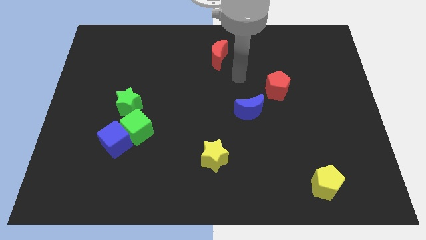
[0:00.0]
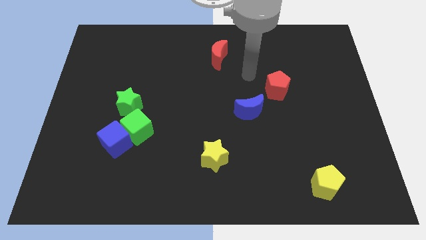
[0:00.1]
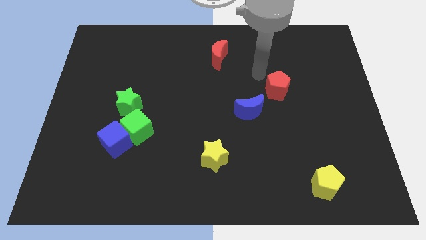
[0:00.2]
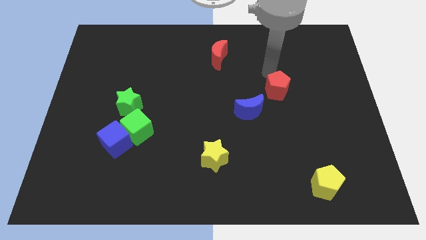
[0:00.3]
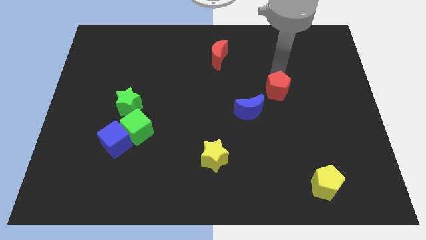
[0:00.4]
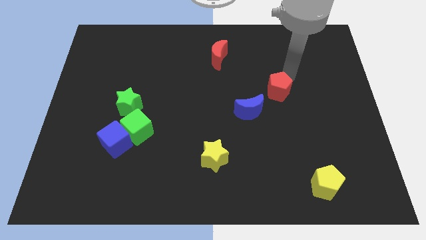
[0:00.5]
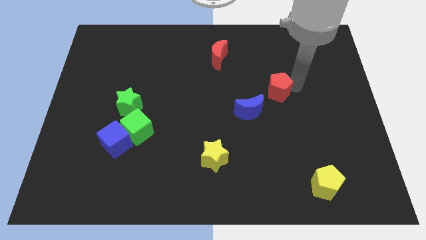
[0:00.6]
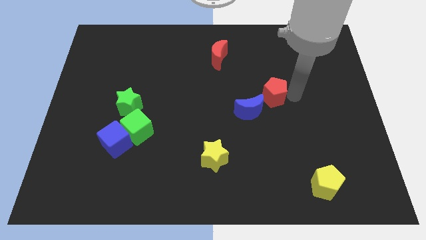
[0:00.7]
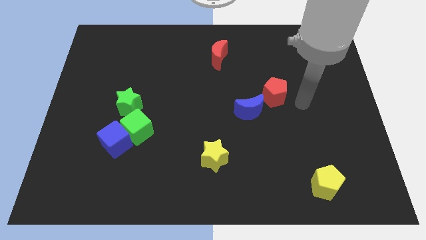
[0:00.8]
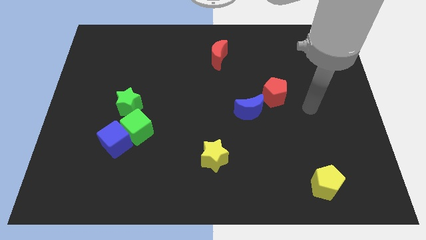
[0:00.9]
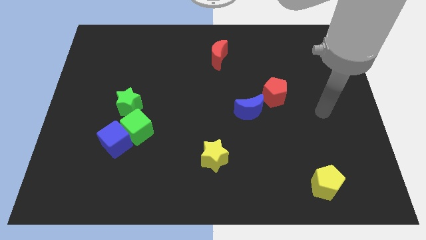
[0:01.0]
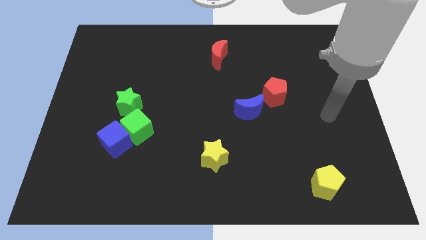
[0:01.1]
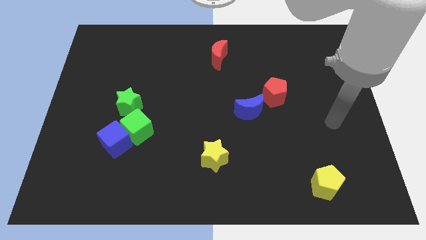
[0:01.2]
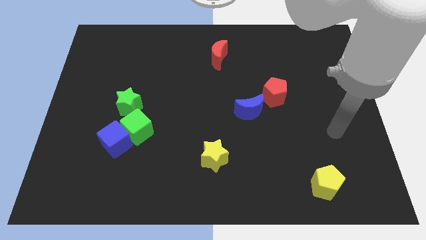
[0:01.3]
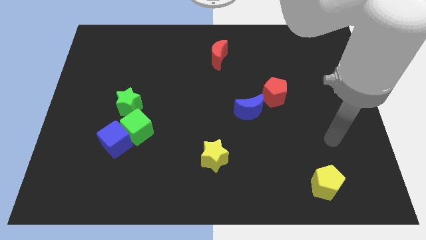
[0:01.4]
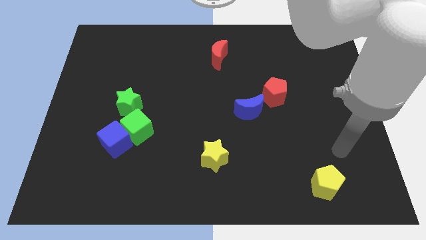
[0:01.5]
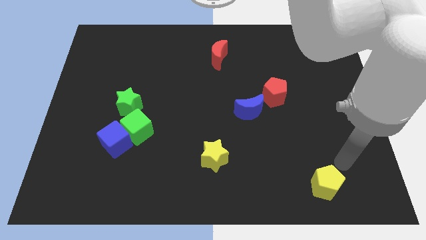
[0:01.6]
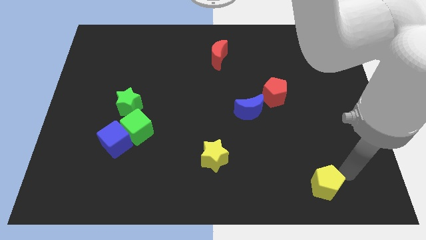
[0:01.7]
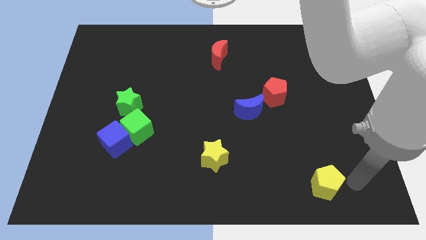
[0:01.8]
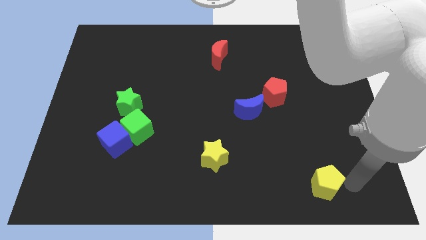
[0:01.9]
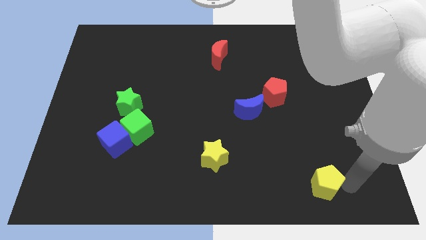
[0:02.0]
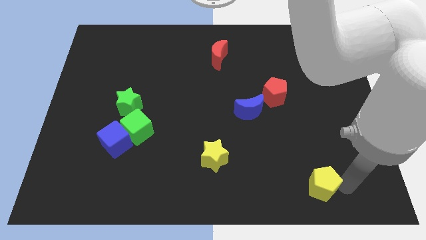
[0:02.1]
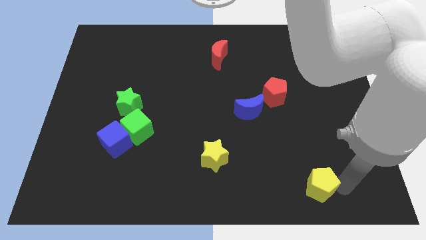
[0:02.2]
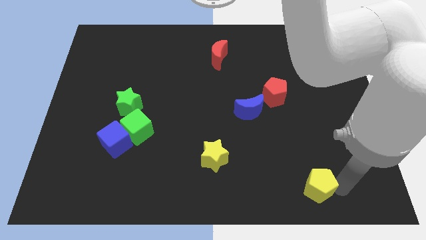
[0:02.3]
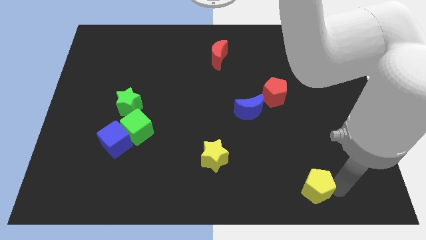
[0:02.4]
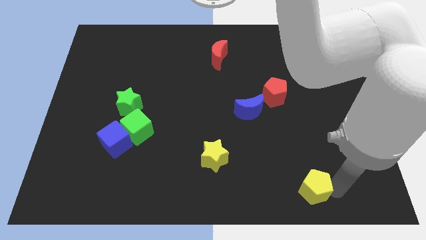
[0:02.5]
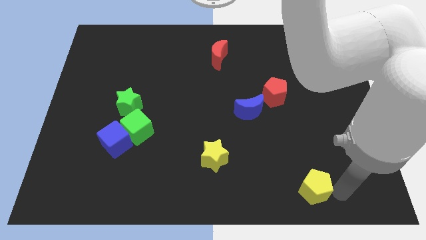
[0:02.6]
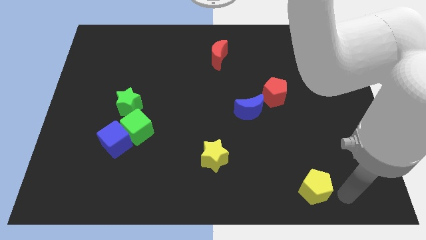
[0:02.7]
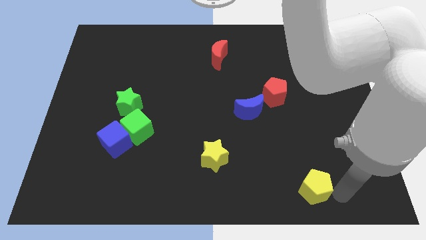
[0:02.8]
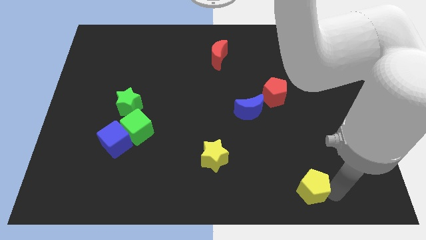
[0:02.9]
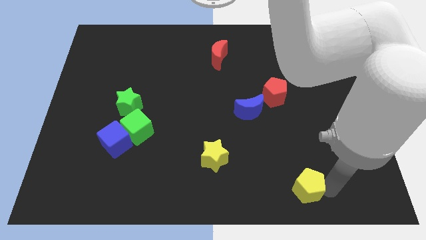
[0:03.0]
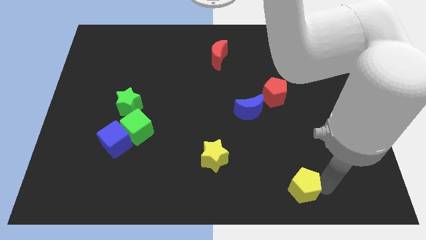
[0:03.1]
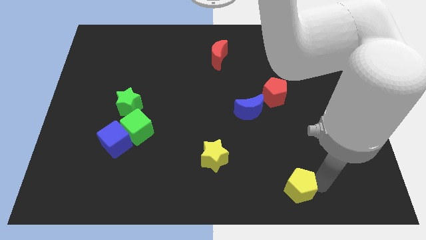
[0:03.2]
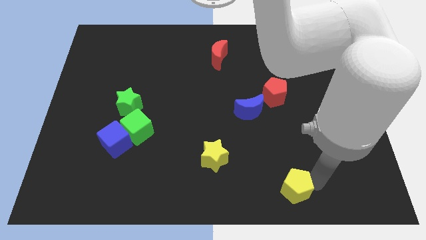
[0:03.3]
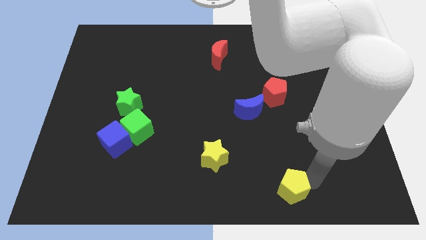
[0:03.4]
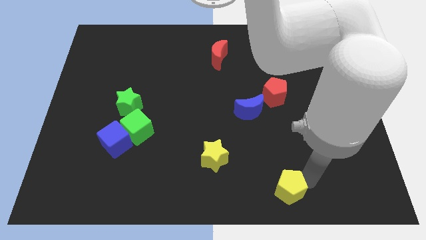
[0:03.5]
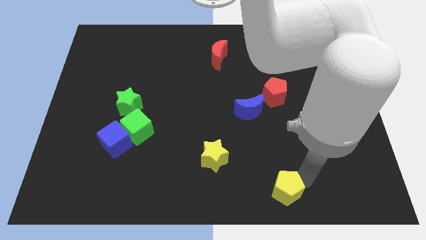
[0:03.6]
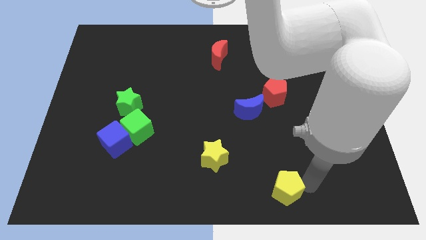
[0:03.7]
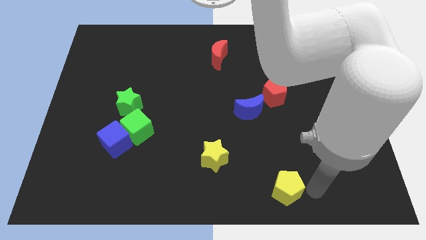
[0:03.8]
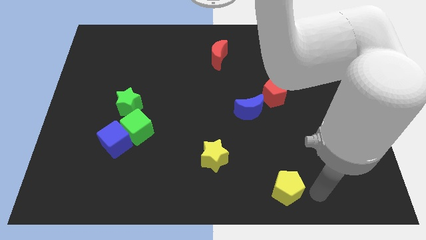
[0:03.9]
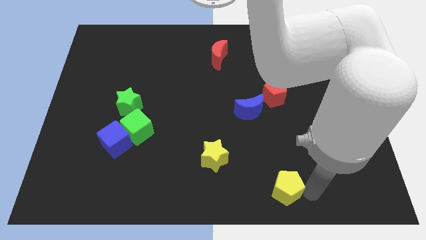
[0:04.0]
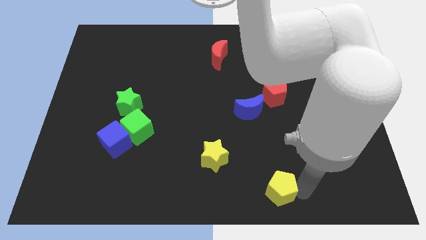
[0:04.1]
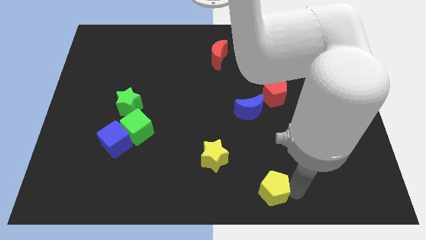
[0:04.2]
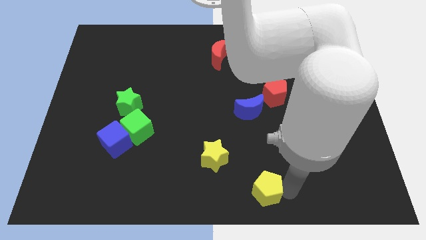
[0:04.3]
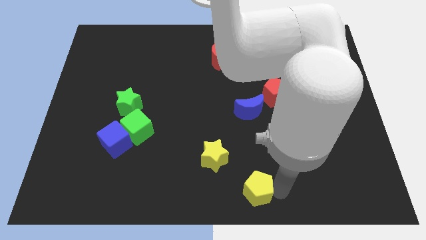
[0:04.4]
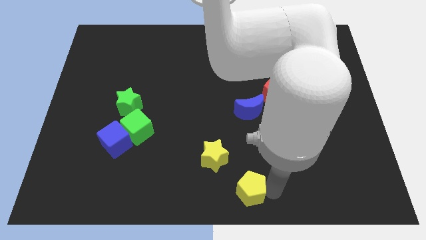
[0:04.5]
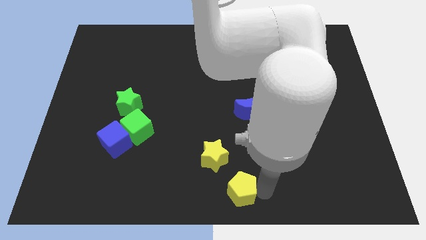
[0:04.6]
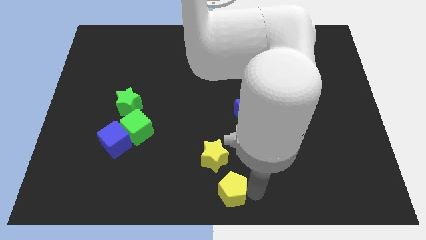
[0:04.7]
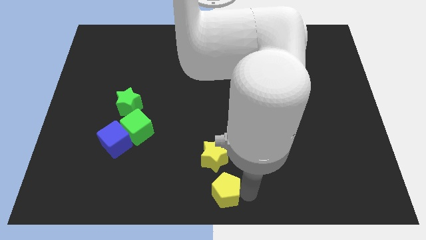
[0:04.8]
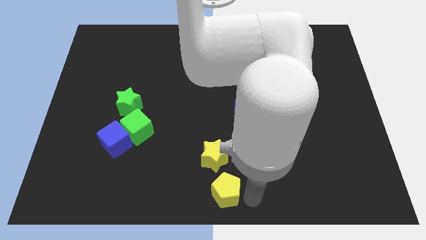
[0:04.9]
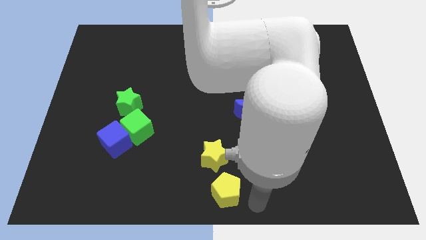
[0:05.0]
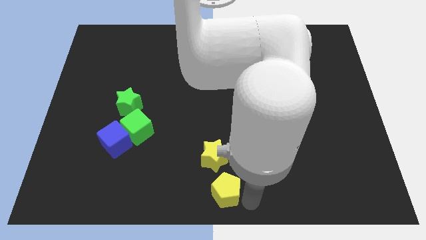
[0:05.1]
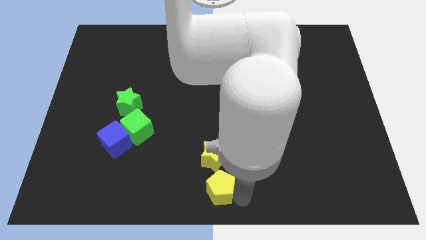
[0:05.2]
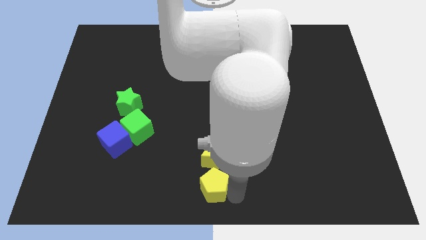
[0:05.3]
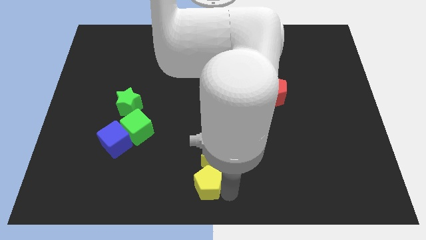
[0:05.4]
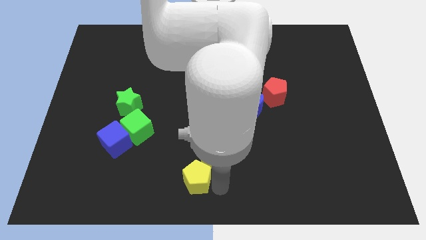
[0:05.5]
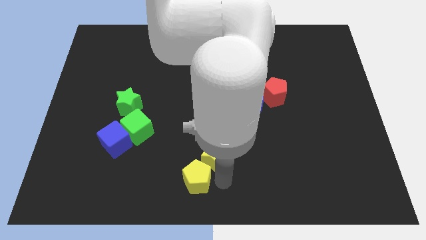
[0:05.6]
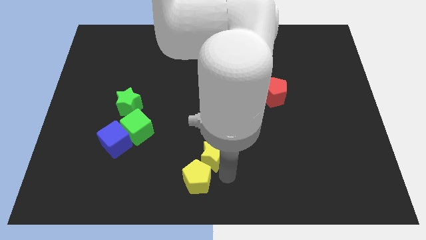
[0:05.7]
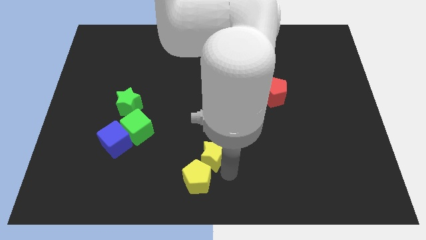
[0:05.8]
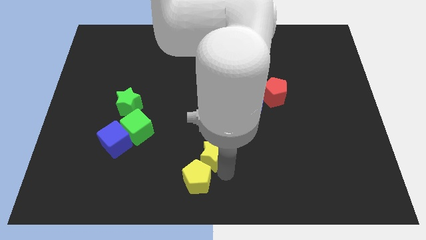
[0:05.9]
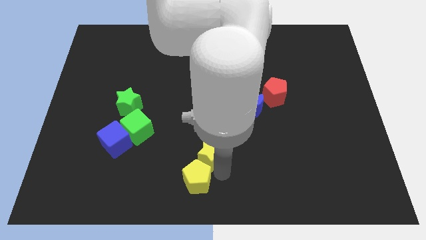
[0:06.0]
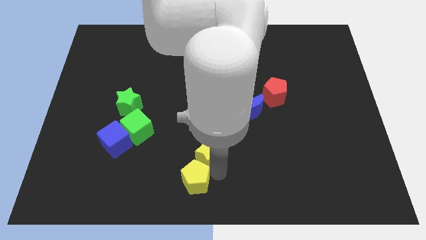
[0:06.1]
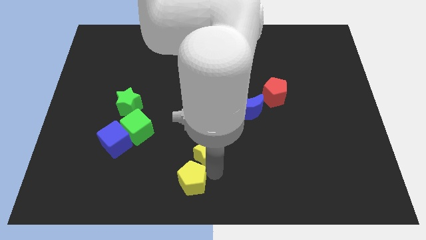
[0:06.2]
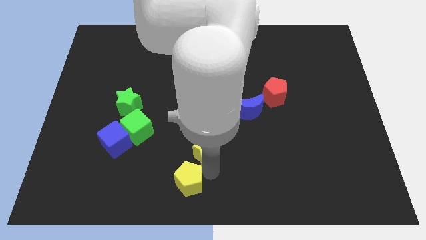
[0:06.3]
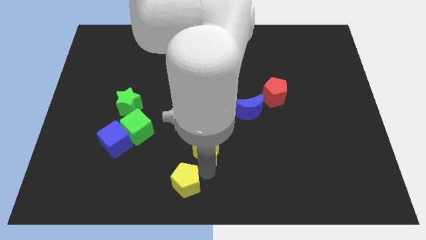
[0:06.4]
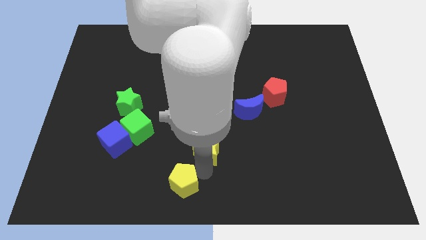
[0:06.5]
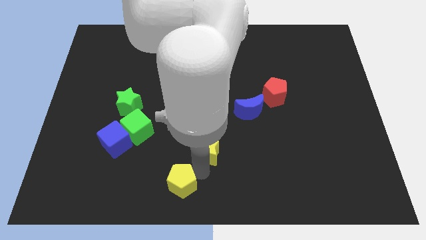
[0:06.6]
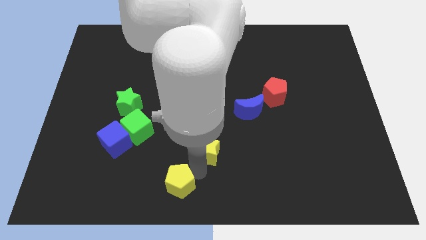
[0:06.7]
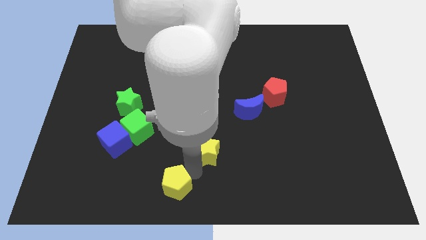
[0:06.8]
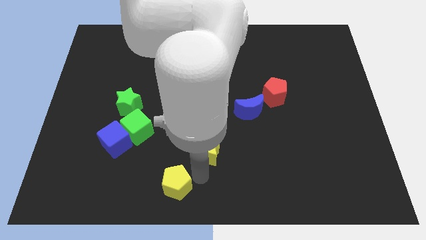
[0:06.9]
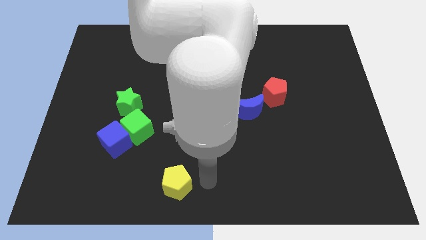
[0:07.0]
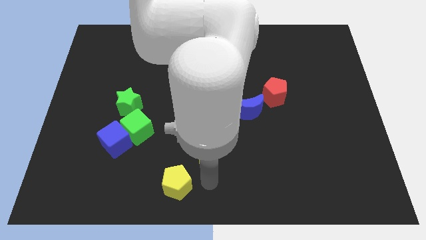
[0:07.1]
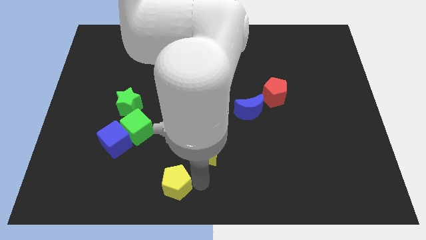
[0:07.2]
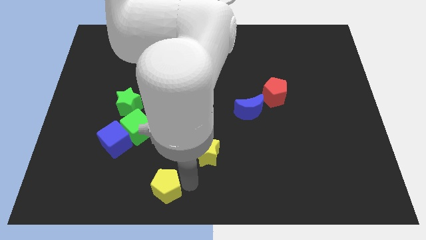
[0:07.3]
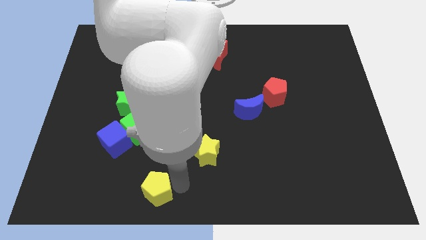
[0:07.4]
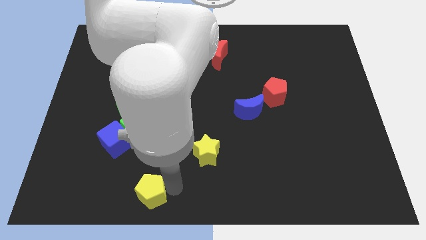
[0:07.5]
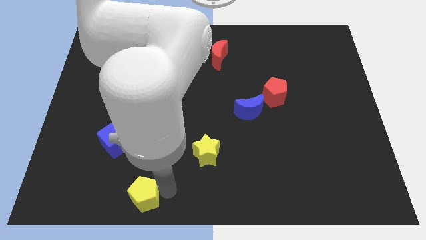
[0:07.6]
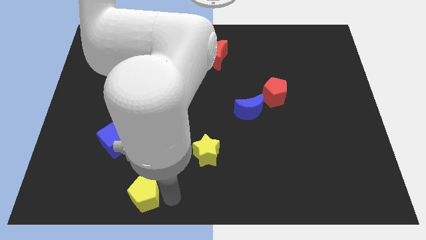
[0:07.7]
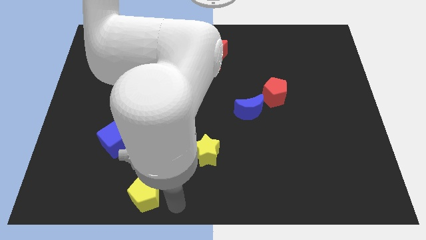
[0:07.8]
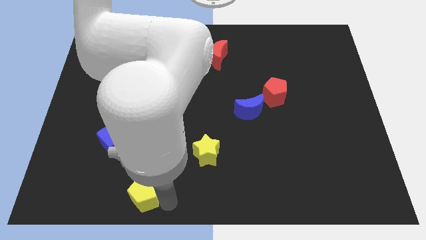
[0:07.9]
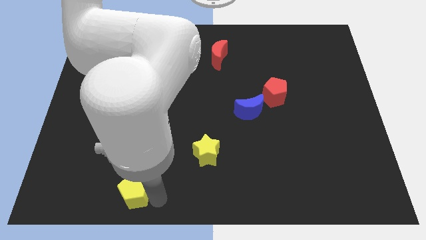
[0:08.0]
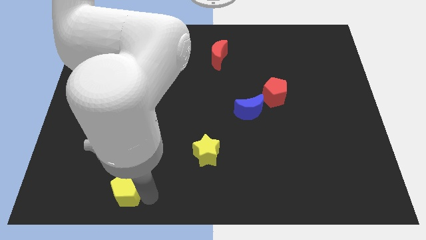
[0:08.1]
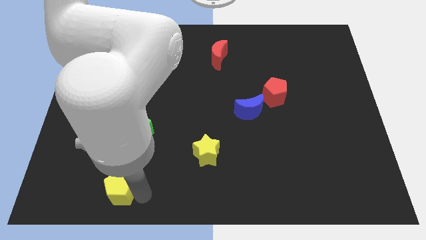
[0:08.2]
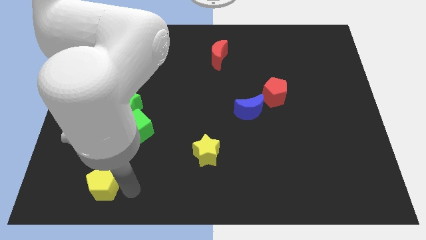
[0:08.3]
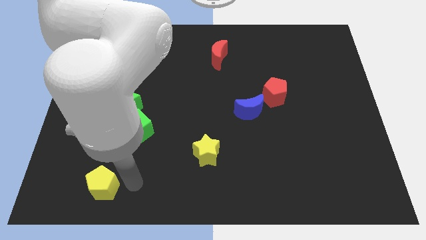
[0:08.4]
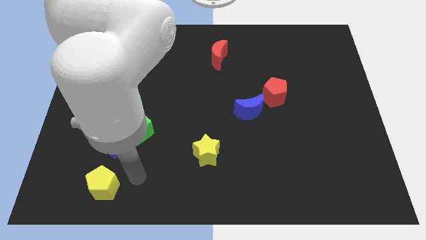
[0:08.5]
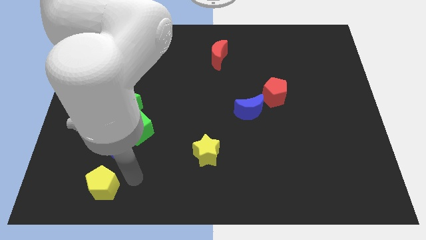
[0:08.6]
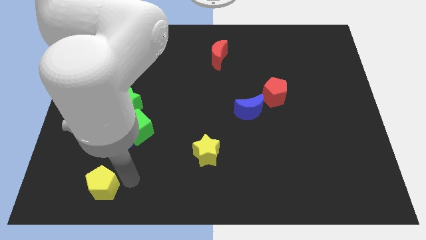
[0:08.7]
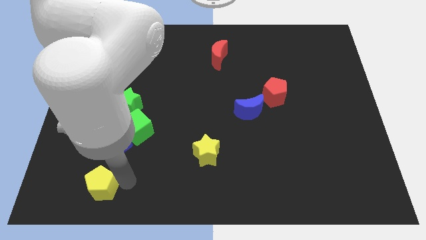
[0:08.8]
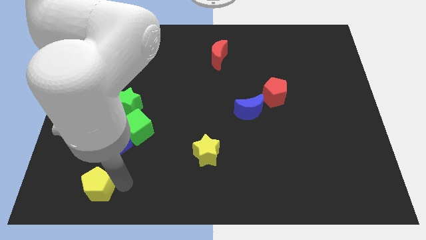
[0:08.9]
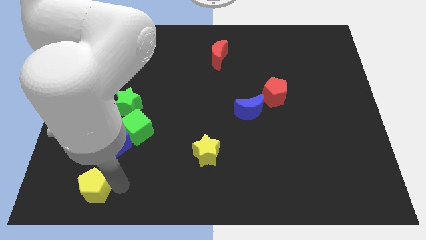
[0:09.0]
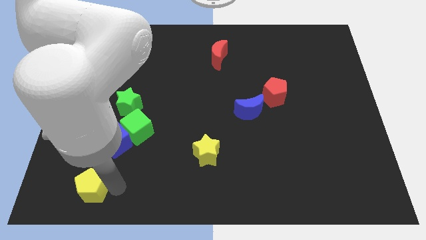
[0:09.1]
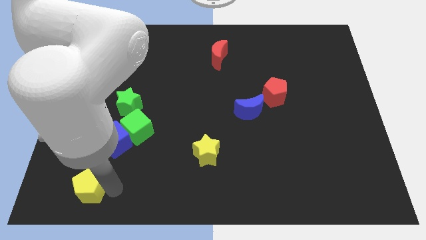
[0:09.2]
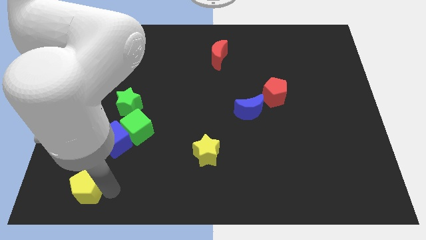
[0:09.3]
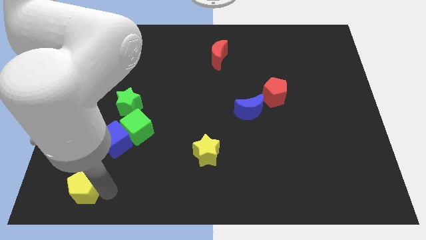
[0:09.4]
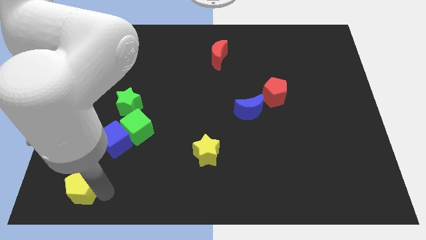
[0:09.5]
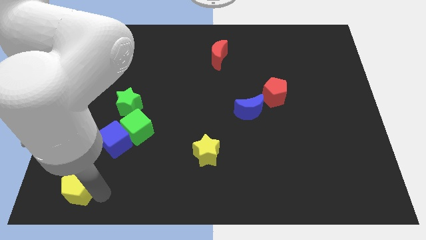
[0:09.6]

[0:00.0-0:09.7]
put the yellow pentagon to the bottom left of the board
